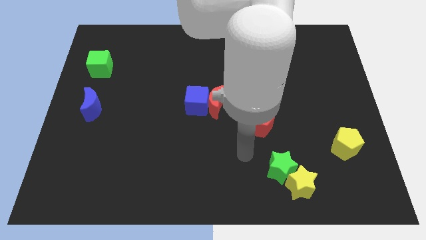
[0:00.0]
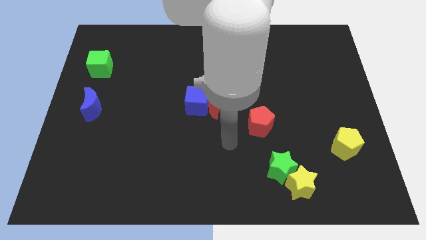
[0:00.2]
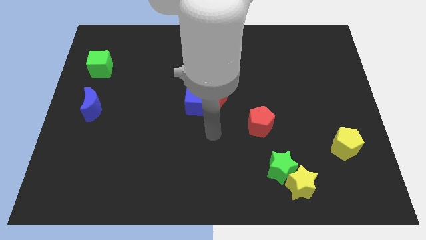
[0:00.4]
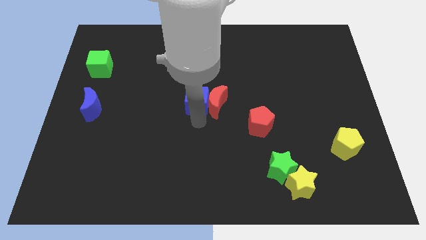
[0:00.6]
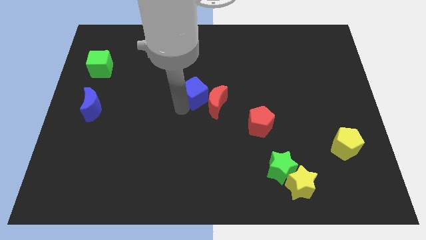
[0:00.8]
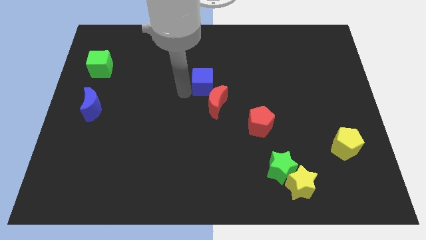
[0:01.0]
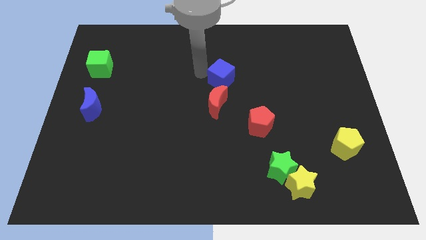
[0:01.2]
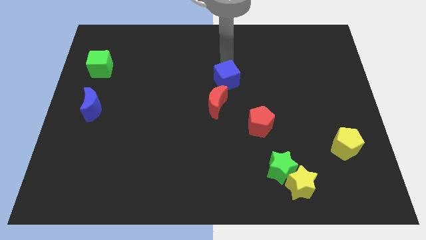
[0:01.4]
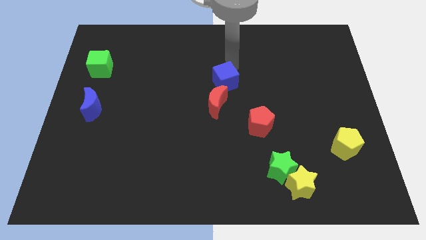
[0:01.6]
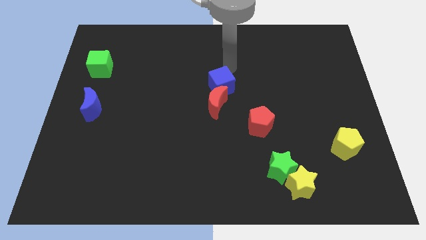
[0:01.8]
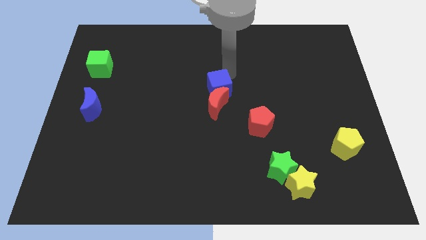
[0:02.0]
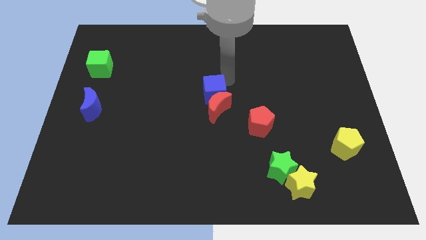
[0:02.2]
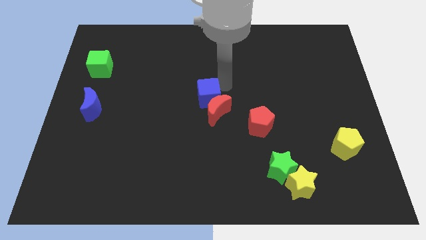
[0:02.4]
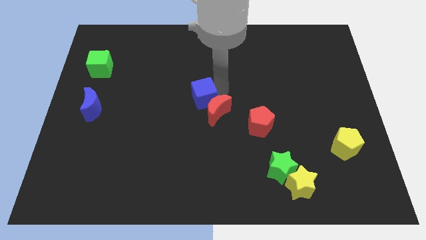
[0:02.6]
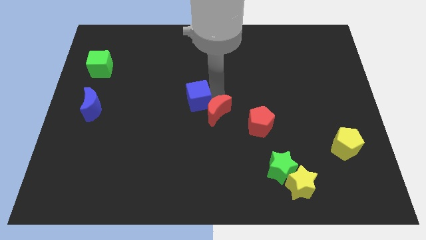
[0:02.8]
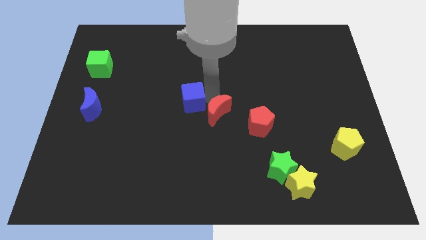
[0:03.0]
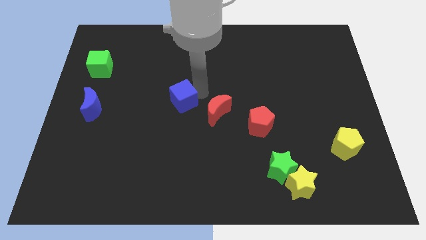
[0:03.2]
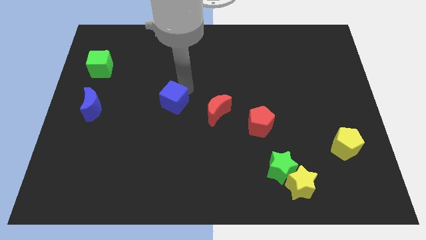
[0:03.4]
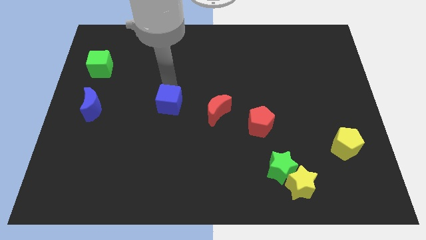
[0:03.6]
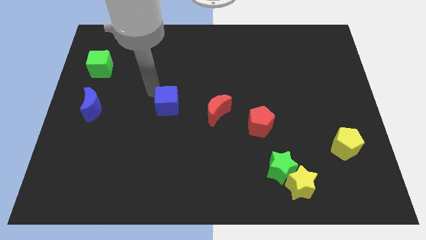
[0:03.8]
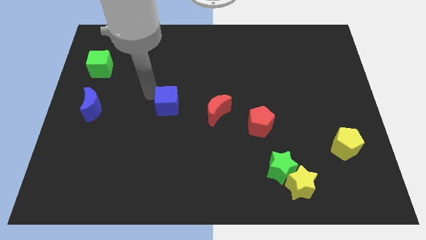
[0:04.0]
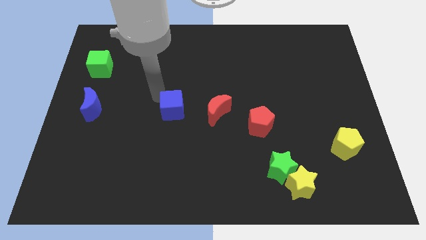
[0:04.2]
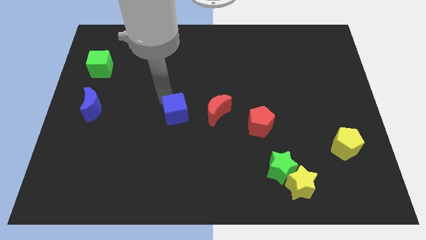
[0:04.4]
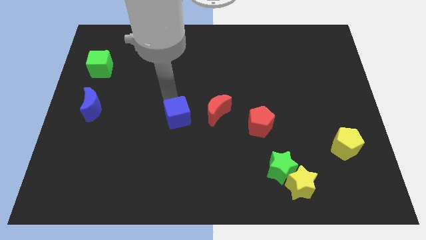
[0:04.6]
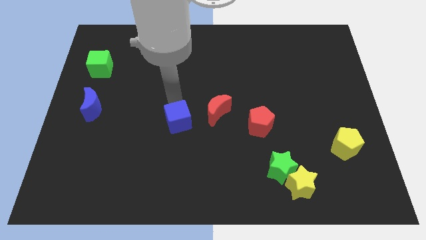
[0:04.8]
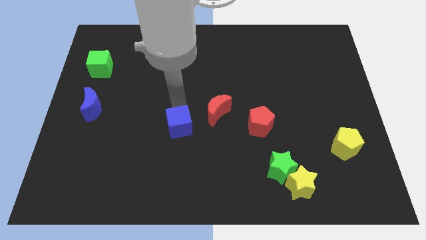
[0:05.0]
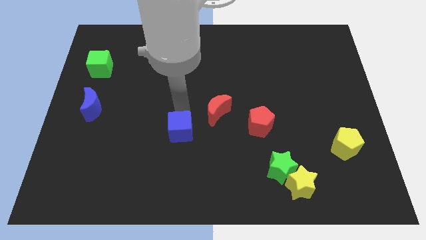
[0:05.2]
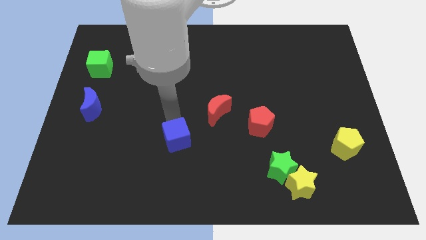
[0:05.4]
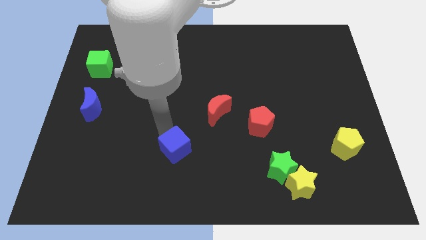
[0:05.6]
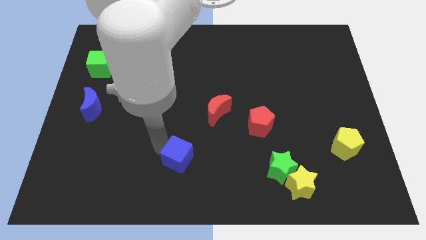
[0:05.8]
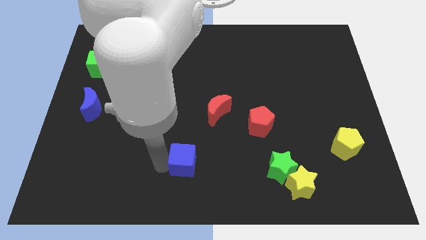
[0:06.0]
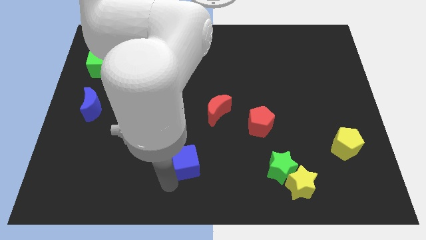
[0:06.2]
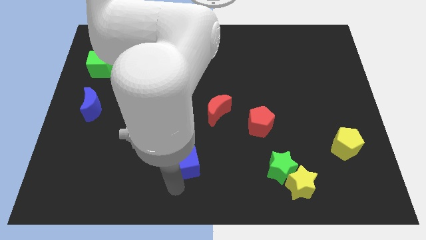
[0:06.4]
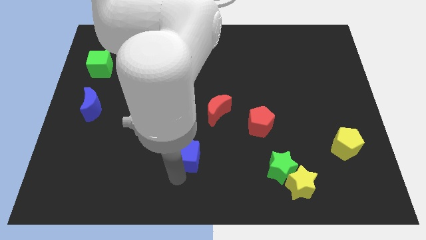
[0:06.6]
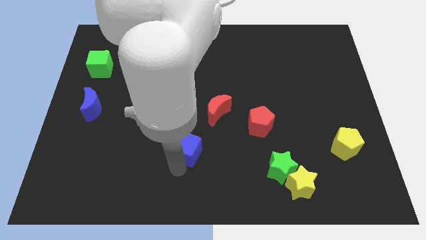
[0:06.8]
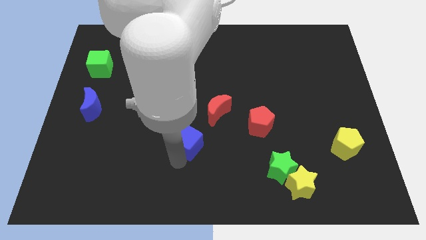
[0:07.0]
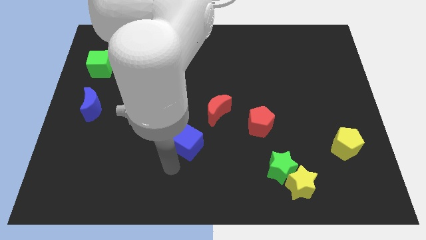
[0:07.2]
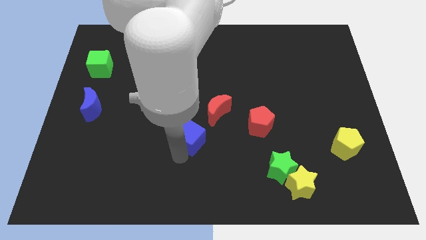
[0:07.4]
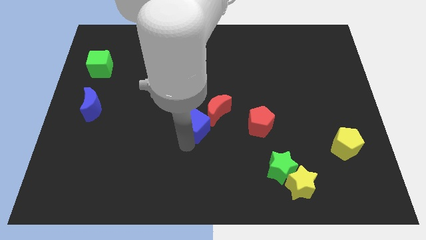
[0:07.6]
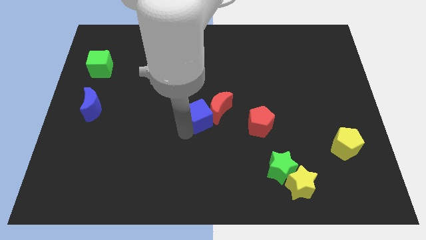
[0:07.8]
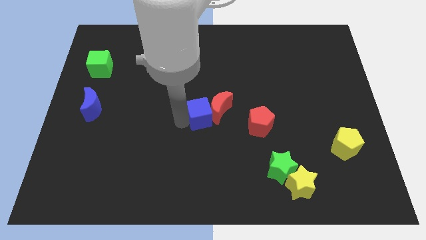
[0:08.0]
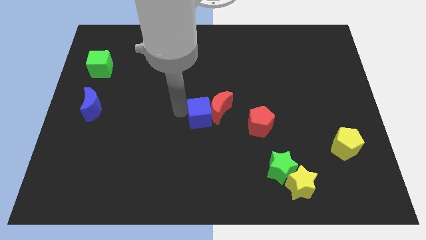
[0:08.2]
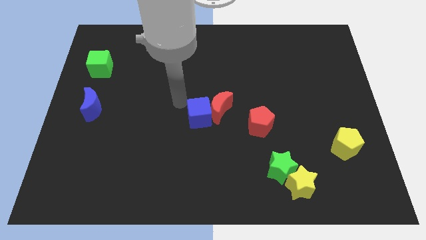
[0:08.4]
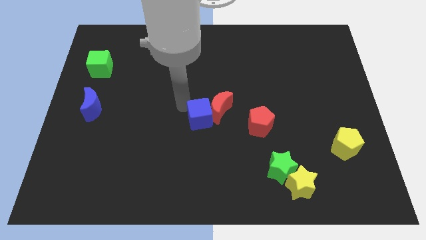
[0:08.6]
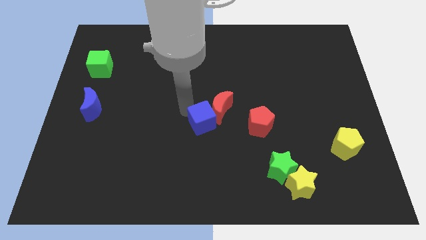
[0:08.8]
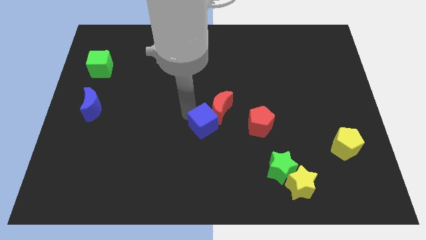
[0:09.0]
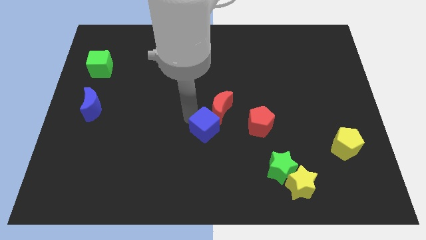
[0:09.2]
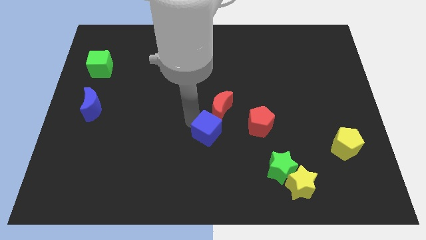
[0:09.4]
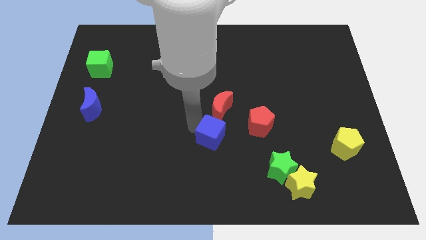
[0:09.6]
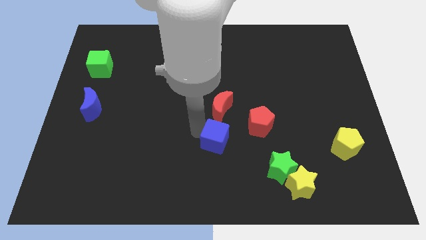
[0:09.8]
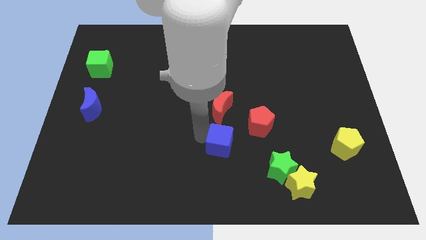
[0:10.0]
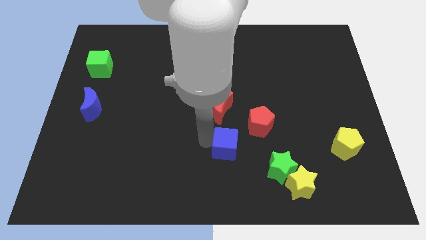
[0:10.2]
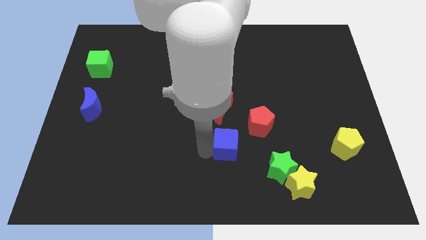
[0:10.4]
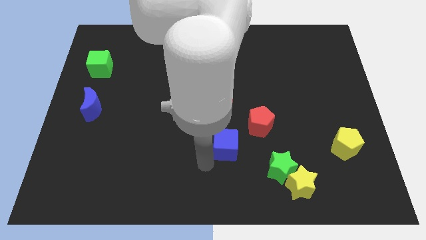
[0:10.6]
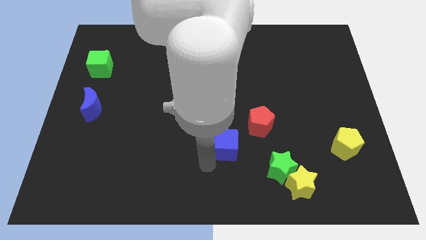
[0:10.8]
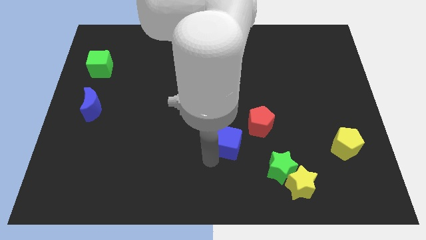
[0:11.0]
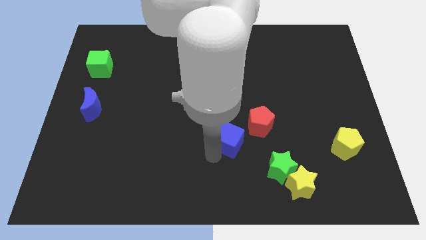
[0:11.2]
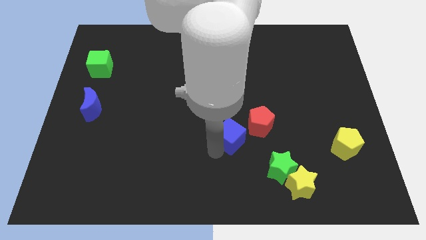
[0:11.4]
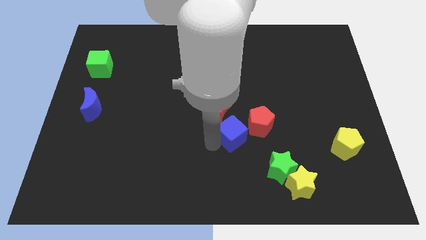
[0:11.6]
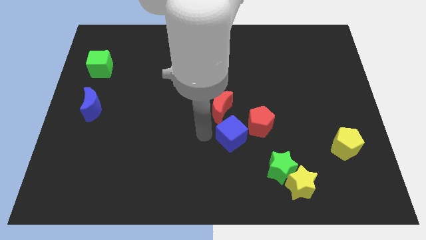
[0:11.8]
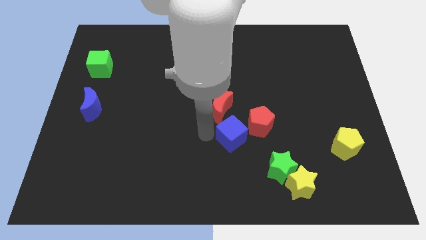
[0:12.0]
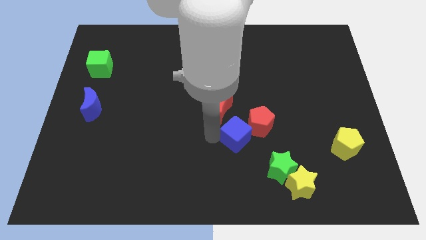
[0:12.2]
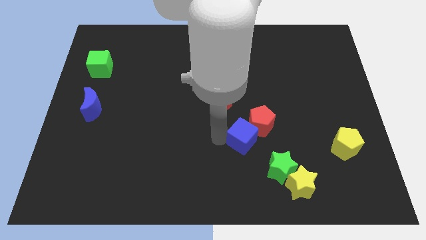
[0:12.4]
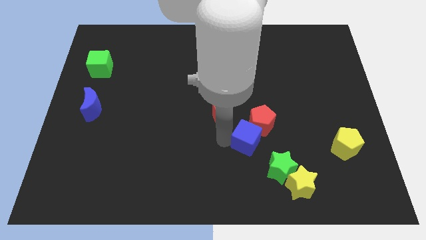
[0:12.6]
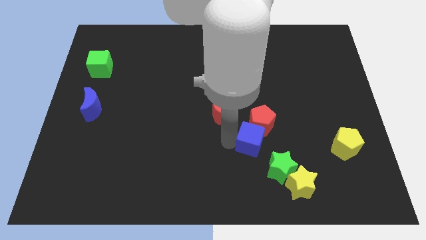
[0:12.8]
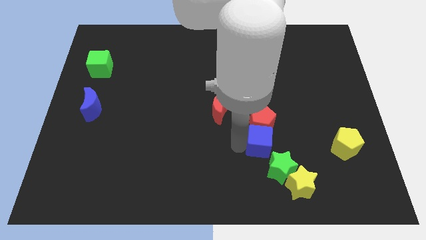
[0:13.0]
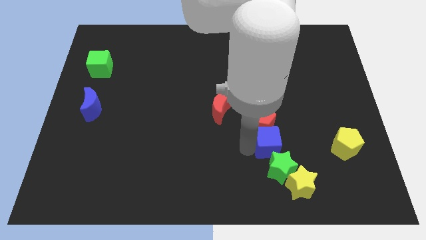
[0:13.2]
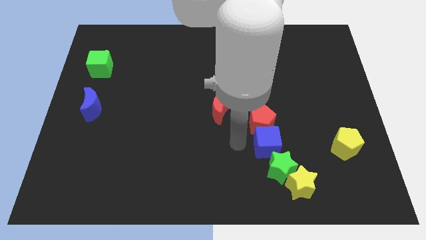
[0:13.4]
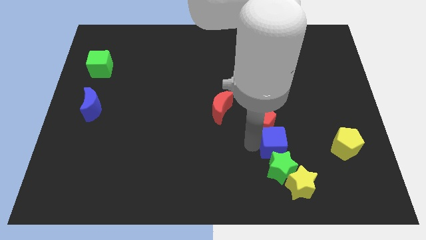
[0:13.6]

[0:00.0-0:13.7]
put the blue cube diagonally up and to the right of the green star
